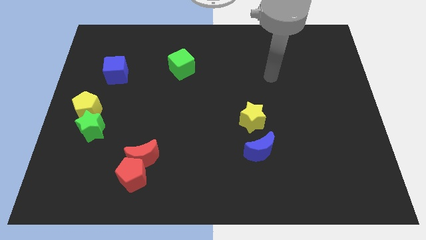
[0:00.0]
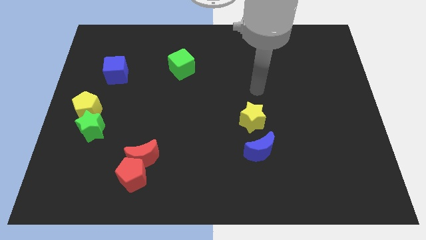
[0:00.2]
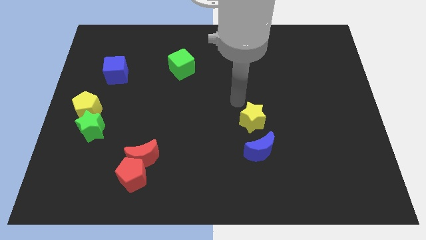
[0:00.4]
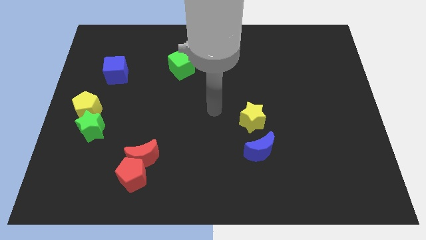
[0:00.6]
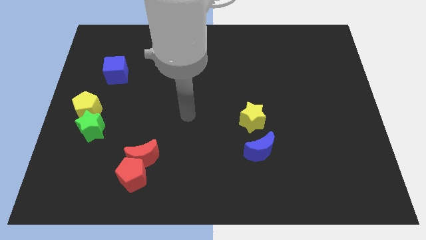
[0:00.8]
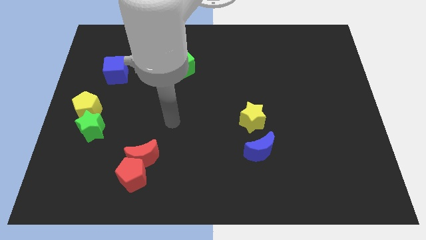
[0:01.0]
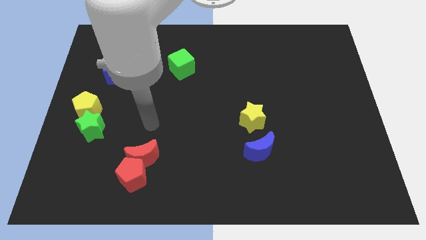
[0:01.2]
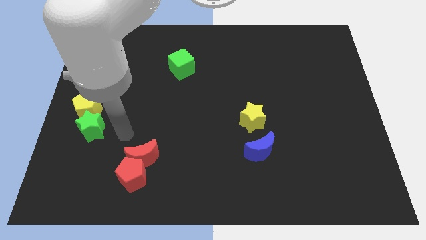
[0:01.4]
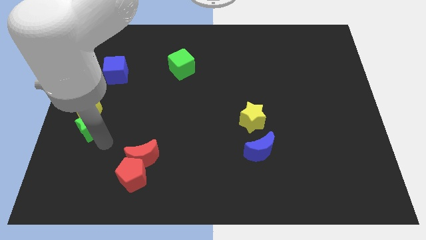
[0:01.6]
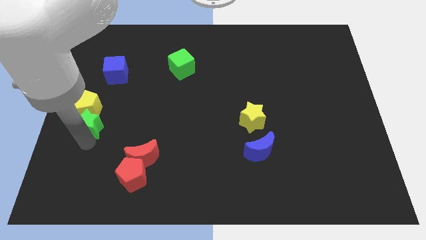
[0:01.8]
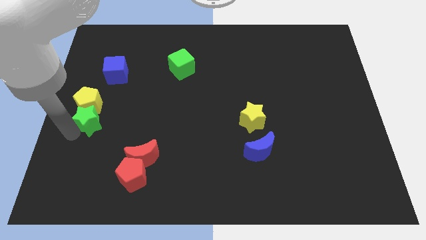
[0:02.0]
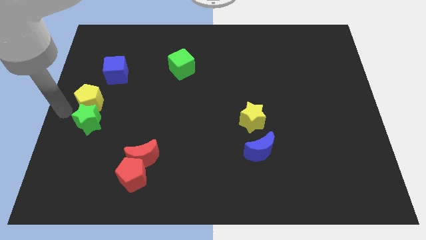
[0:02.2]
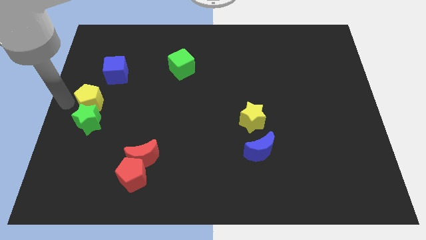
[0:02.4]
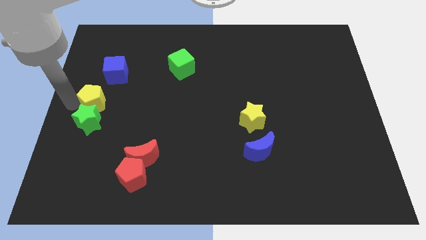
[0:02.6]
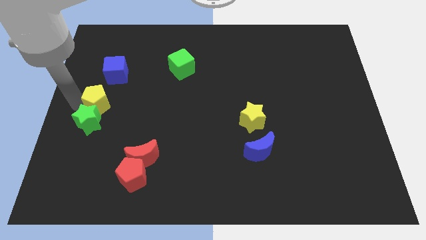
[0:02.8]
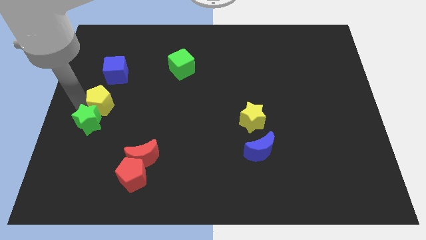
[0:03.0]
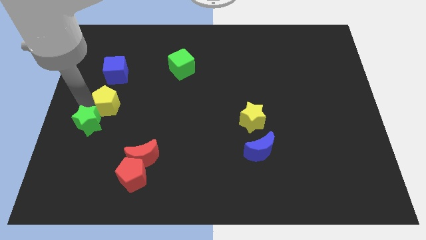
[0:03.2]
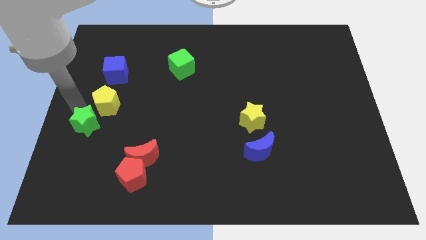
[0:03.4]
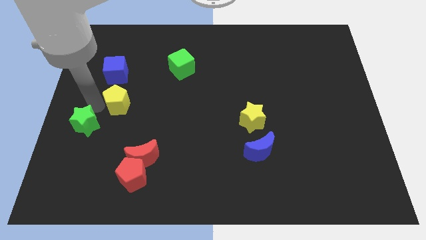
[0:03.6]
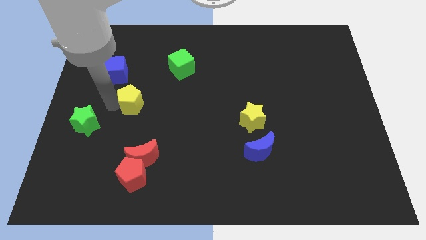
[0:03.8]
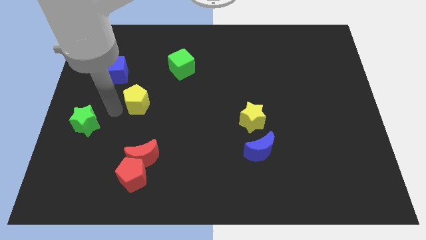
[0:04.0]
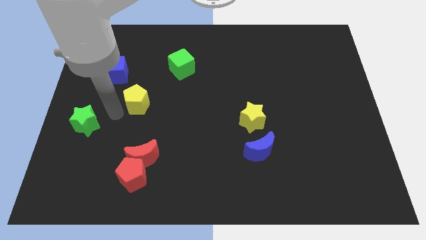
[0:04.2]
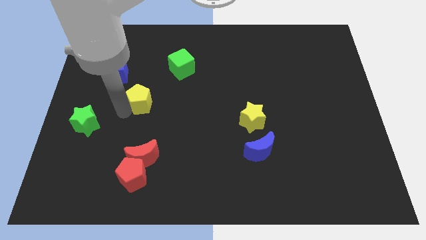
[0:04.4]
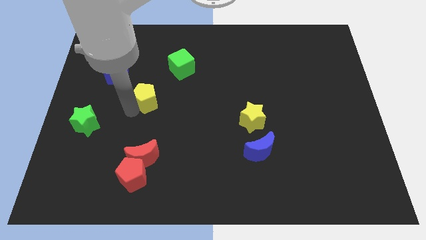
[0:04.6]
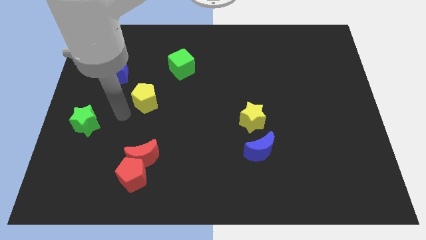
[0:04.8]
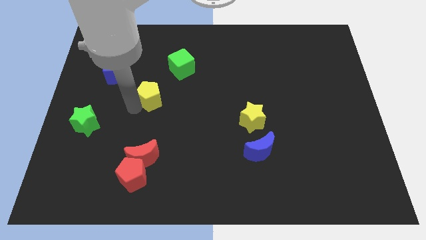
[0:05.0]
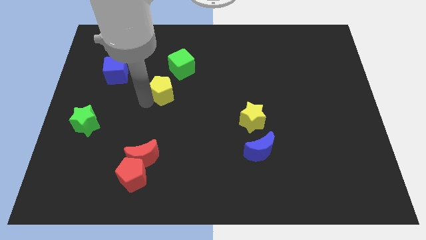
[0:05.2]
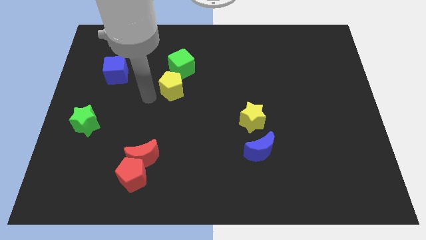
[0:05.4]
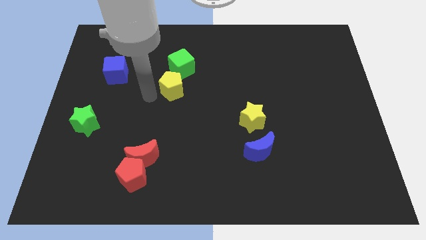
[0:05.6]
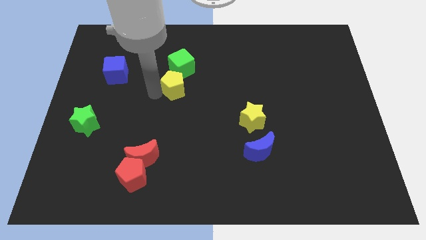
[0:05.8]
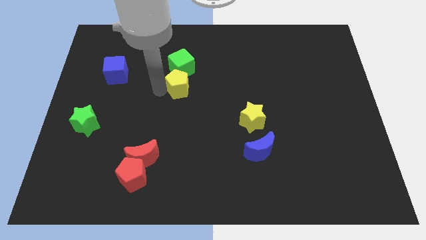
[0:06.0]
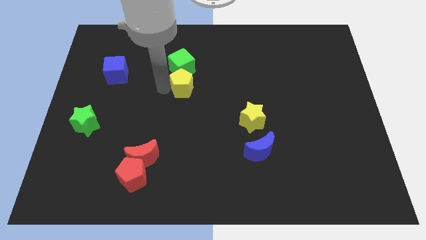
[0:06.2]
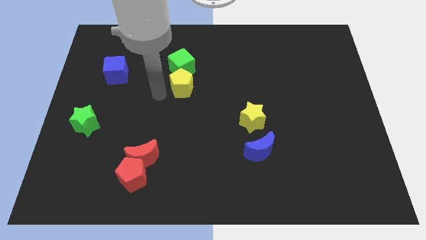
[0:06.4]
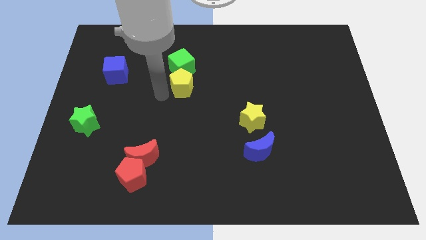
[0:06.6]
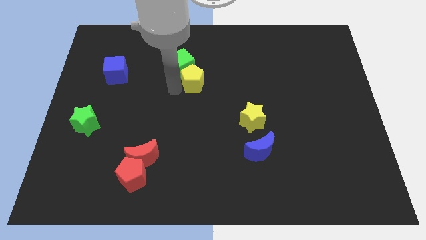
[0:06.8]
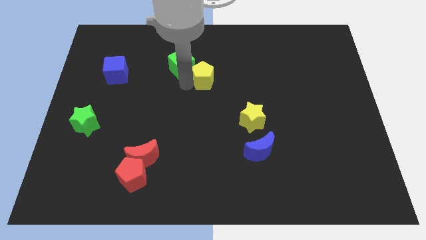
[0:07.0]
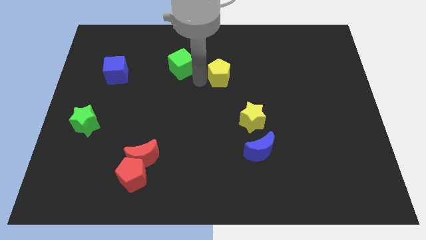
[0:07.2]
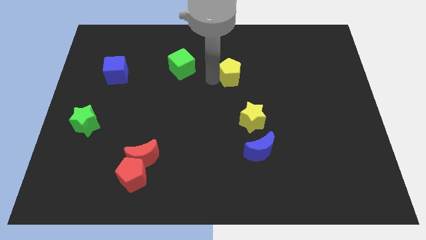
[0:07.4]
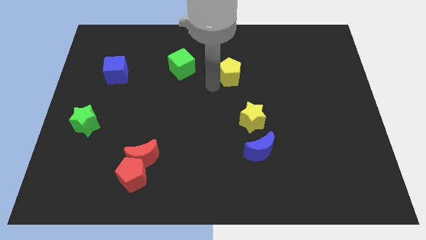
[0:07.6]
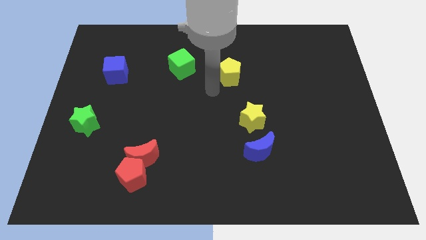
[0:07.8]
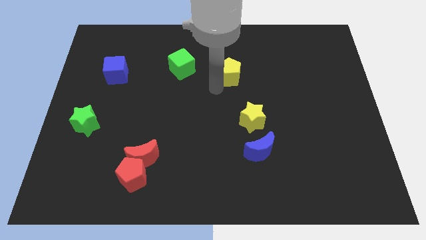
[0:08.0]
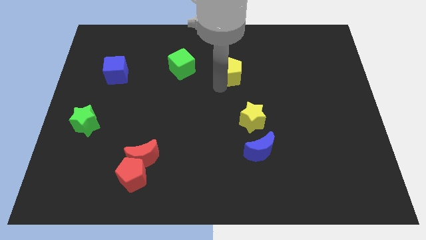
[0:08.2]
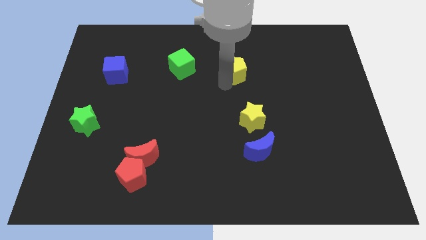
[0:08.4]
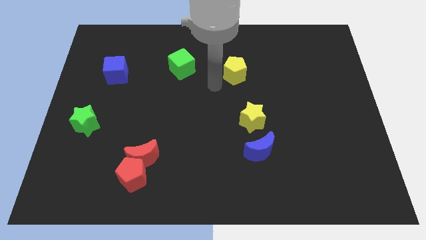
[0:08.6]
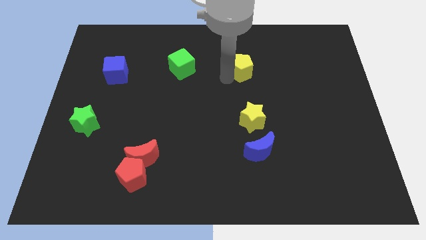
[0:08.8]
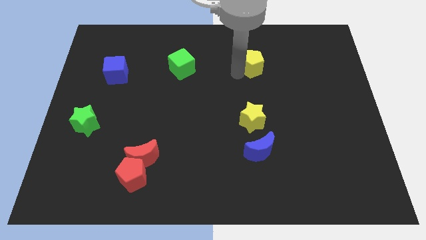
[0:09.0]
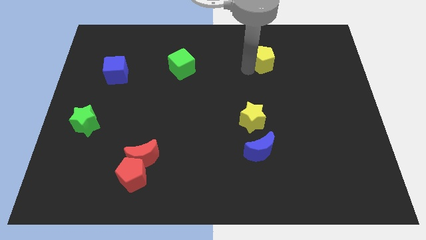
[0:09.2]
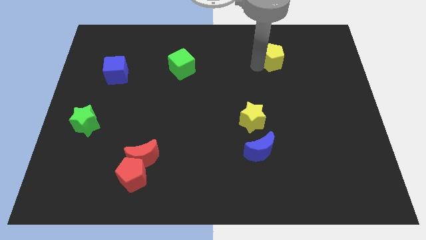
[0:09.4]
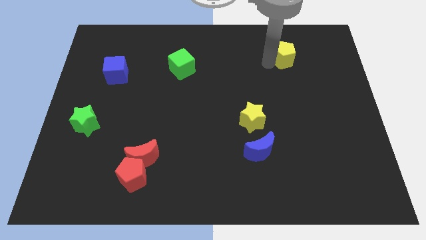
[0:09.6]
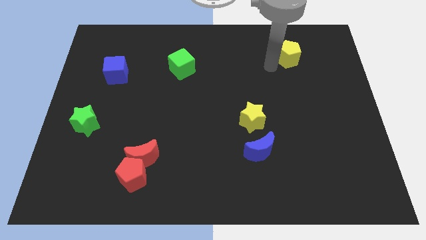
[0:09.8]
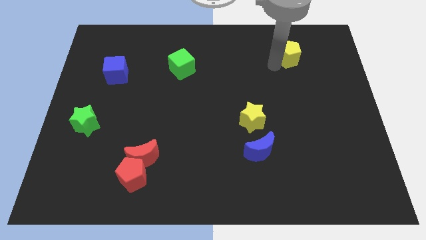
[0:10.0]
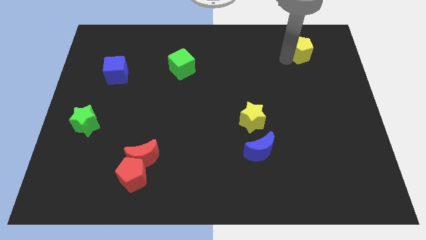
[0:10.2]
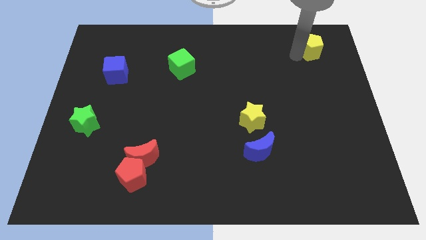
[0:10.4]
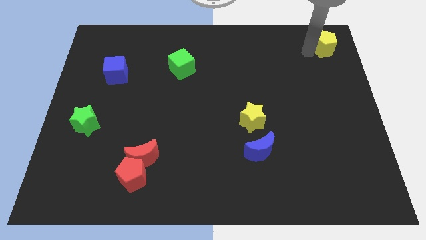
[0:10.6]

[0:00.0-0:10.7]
slide the yellow pentagon to the upper right corner
